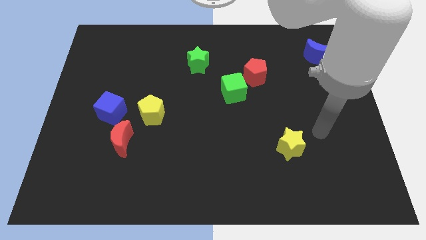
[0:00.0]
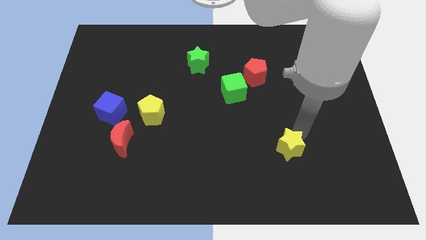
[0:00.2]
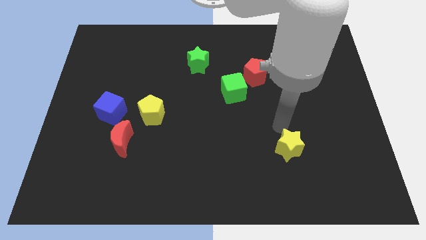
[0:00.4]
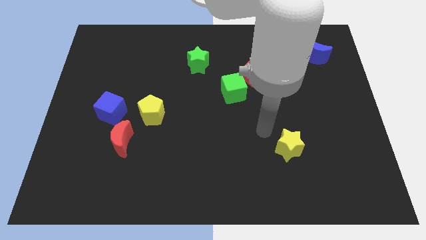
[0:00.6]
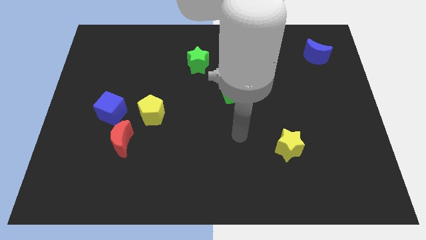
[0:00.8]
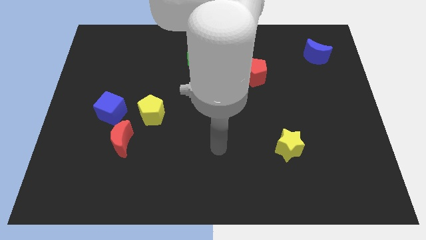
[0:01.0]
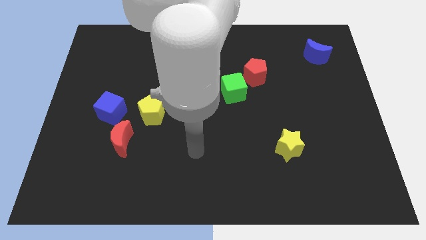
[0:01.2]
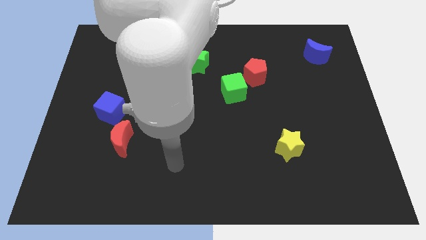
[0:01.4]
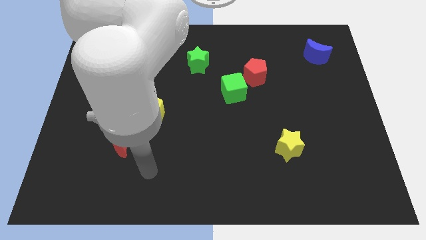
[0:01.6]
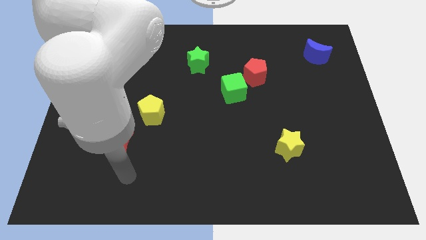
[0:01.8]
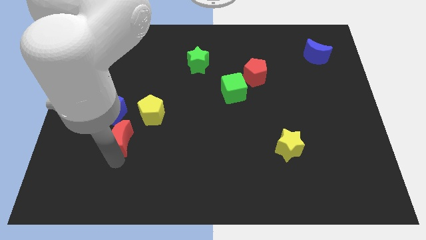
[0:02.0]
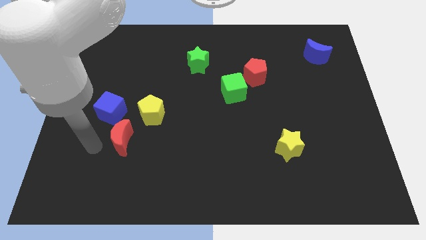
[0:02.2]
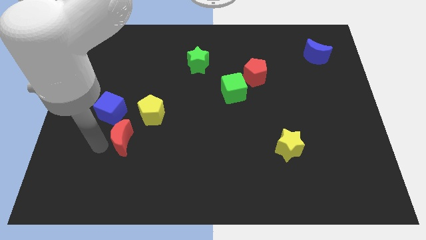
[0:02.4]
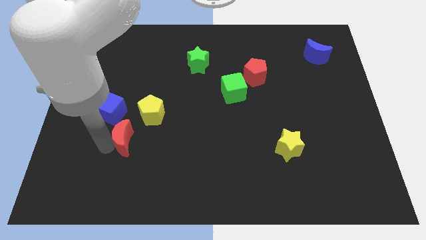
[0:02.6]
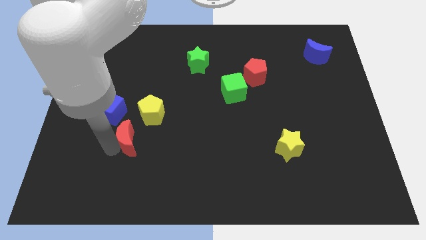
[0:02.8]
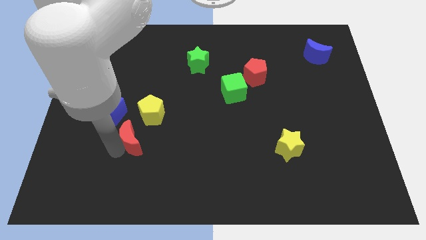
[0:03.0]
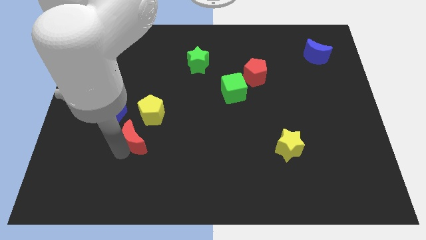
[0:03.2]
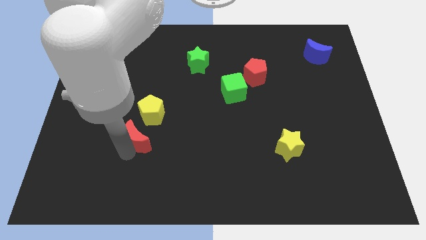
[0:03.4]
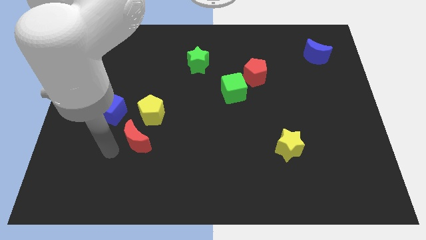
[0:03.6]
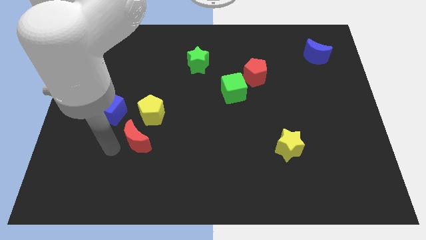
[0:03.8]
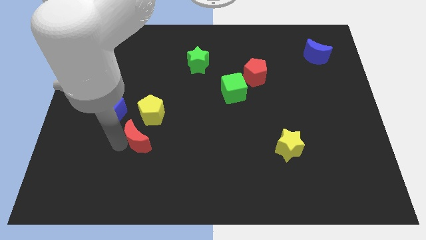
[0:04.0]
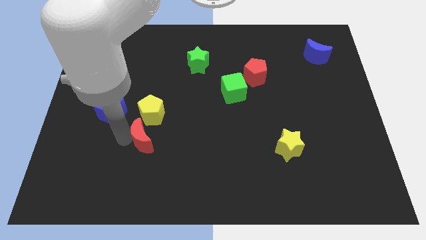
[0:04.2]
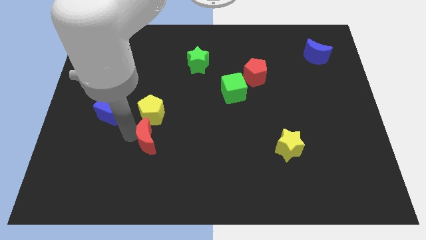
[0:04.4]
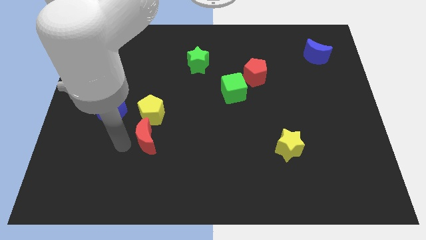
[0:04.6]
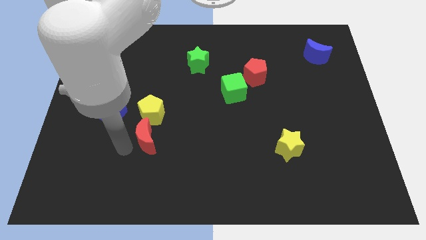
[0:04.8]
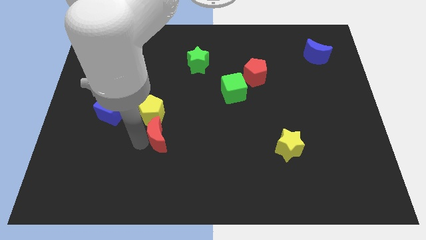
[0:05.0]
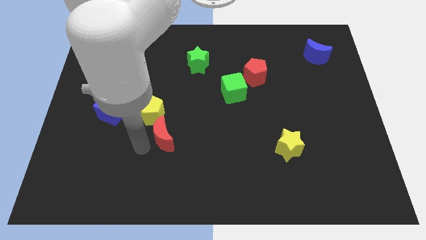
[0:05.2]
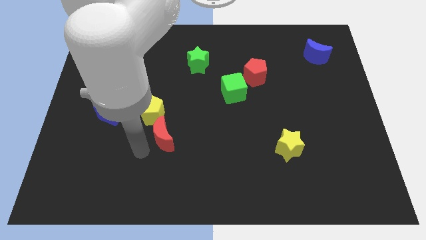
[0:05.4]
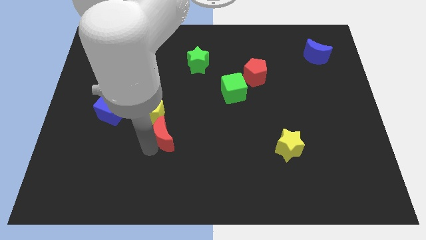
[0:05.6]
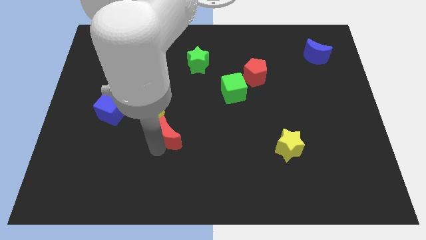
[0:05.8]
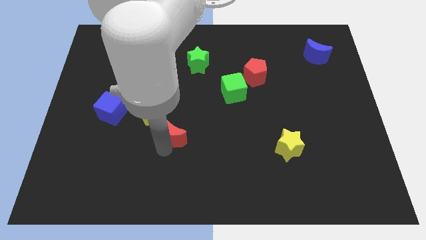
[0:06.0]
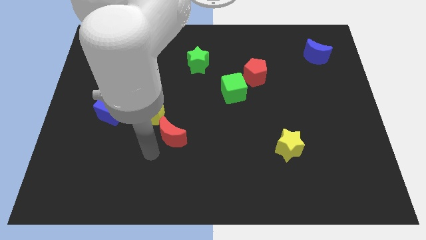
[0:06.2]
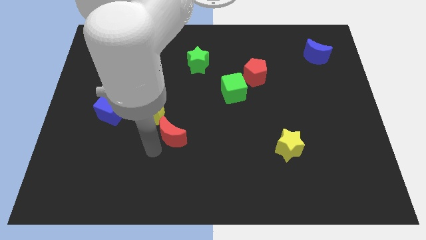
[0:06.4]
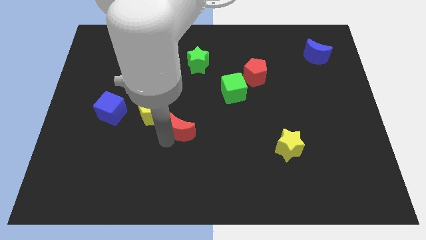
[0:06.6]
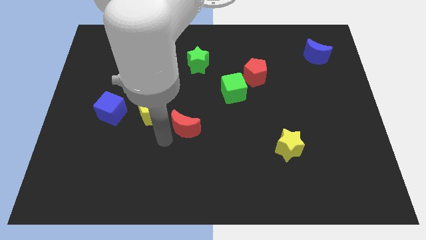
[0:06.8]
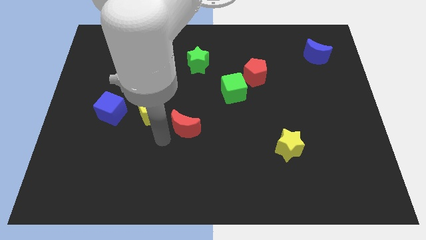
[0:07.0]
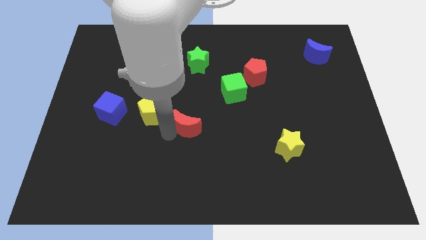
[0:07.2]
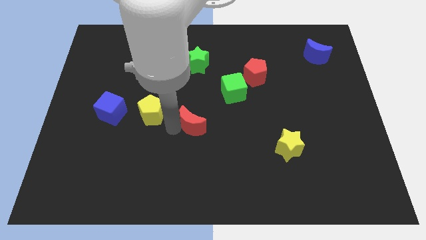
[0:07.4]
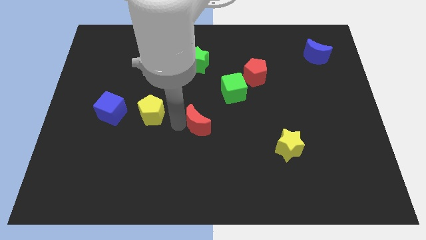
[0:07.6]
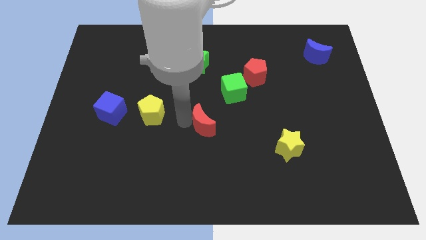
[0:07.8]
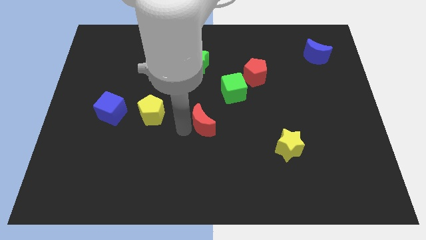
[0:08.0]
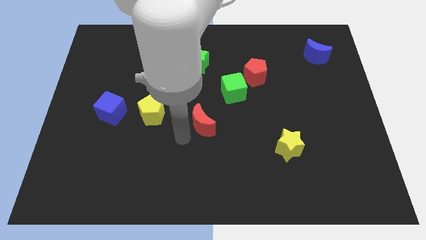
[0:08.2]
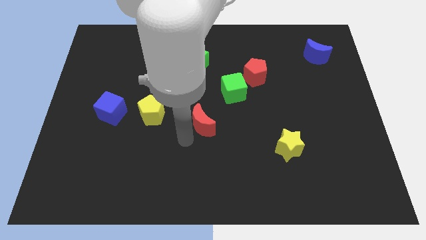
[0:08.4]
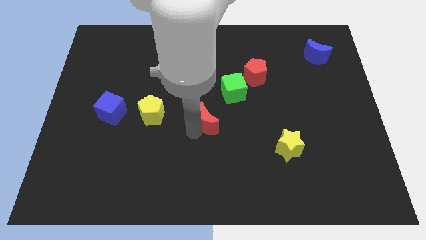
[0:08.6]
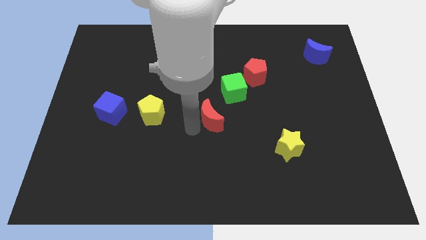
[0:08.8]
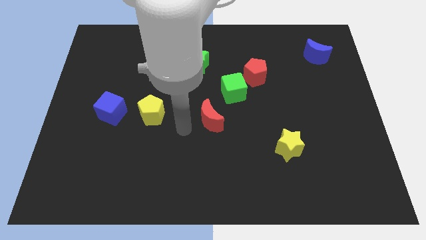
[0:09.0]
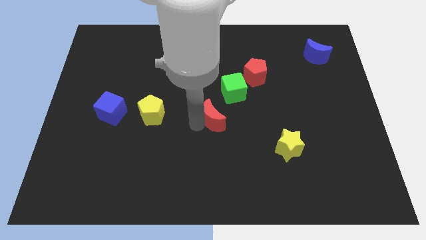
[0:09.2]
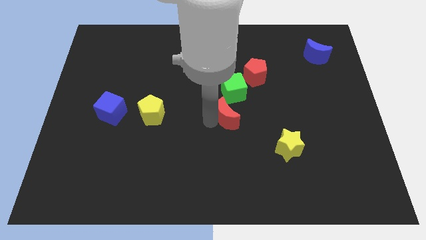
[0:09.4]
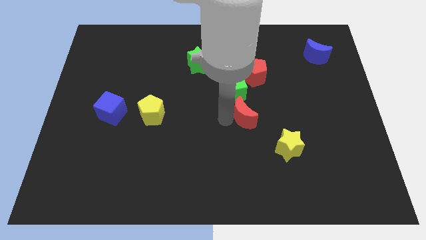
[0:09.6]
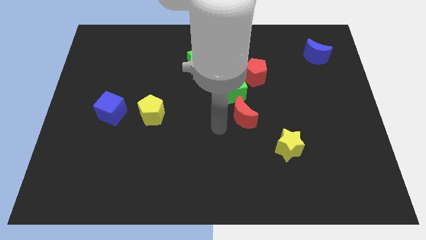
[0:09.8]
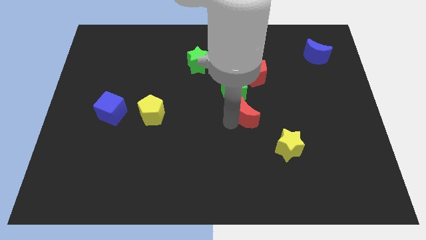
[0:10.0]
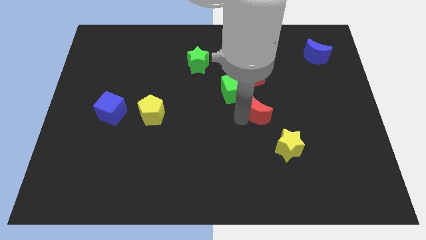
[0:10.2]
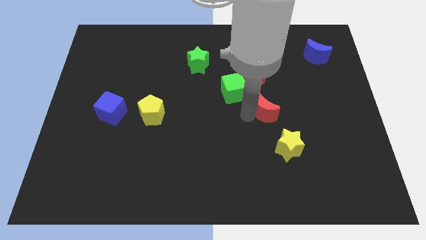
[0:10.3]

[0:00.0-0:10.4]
put the red moon to the top side of the yellow star

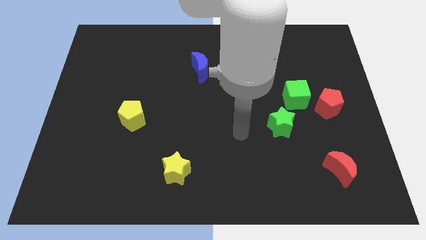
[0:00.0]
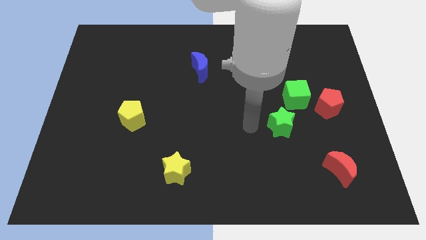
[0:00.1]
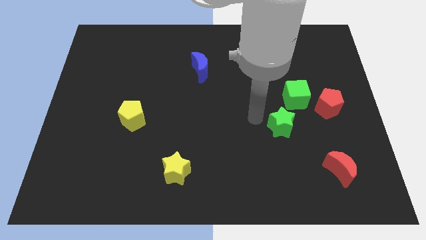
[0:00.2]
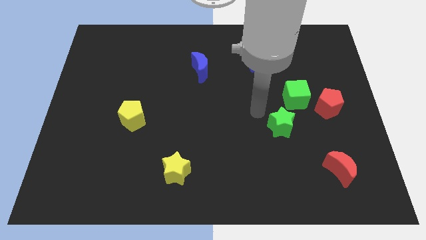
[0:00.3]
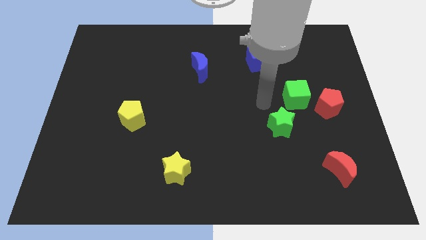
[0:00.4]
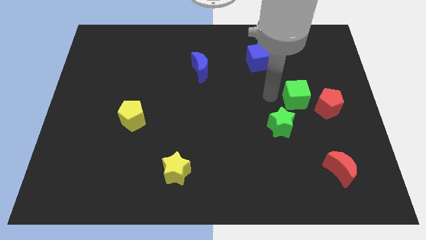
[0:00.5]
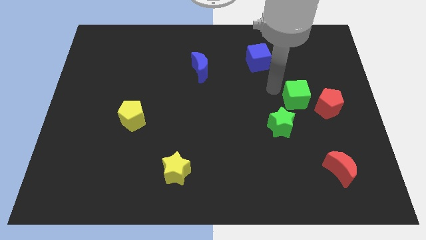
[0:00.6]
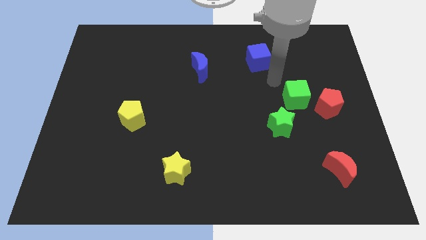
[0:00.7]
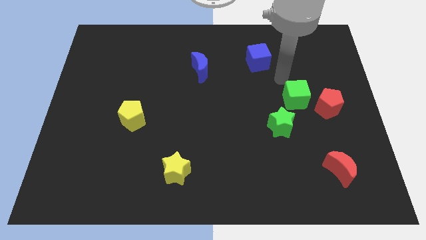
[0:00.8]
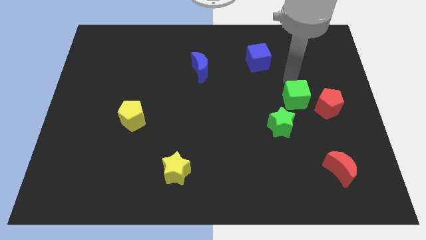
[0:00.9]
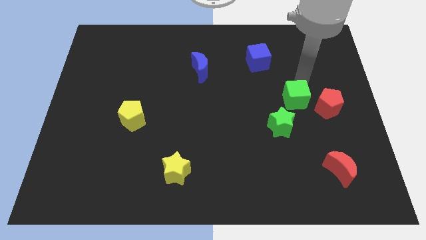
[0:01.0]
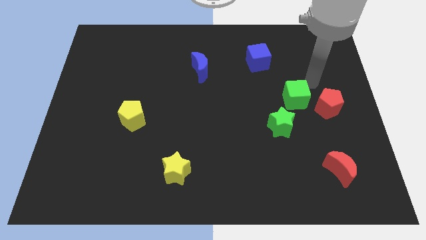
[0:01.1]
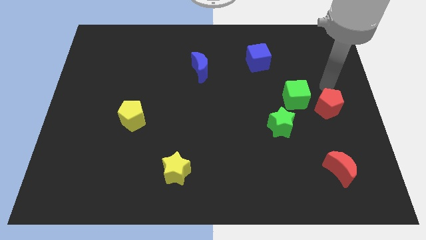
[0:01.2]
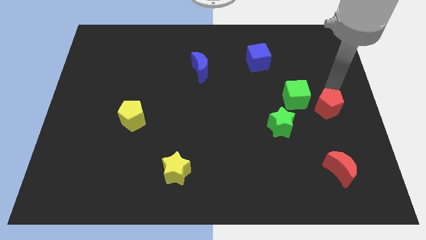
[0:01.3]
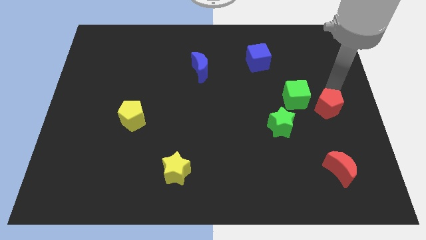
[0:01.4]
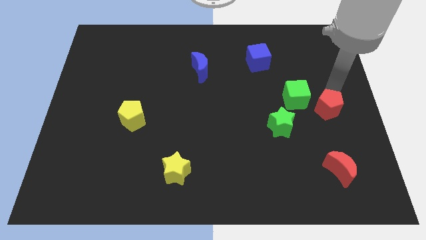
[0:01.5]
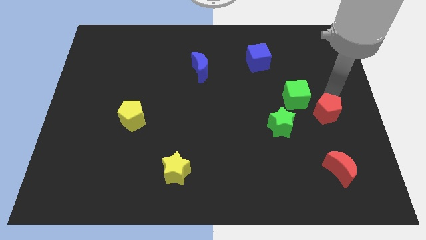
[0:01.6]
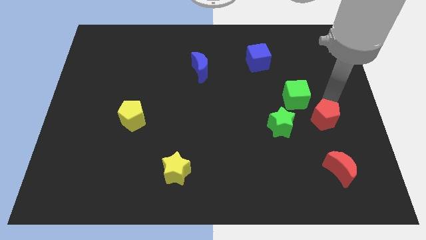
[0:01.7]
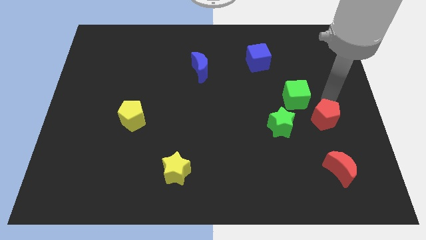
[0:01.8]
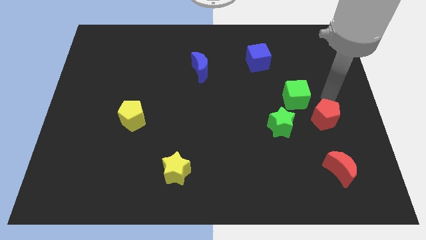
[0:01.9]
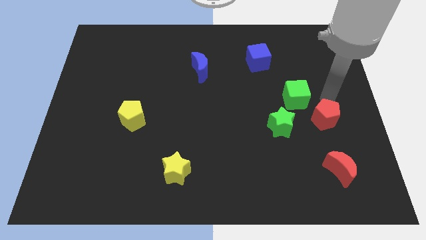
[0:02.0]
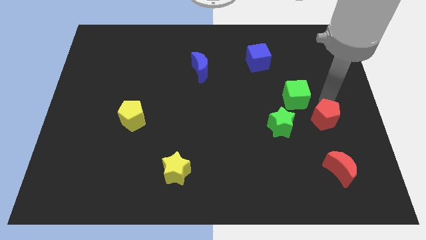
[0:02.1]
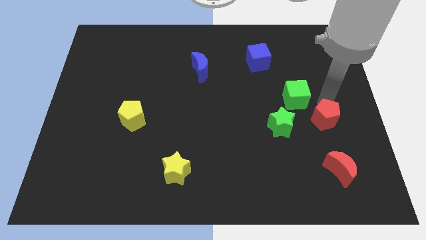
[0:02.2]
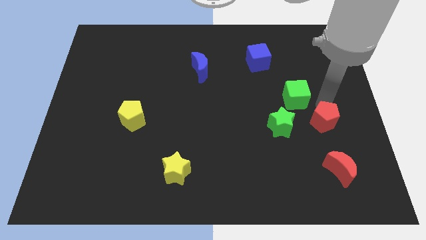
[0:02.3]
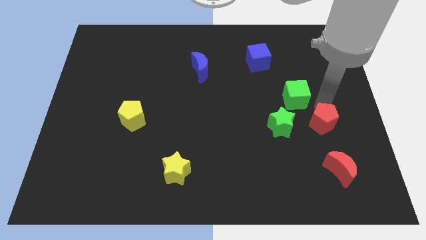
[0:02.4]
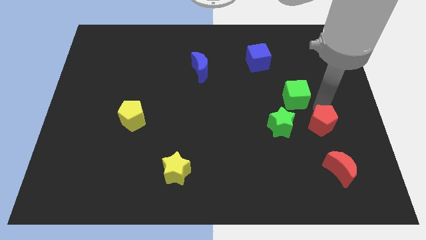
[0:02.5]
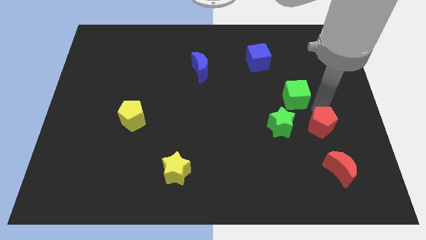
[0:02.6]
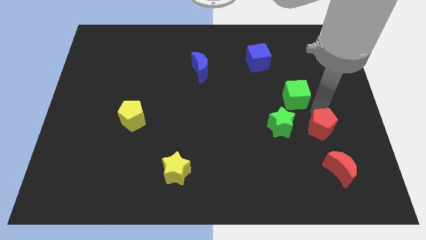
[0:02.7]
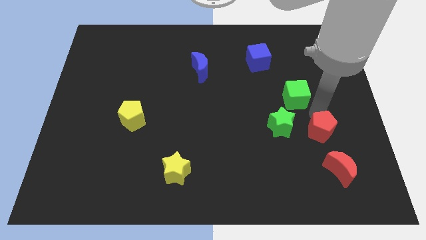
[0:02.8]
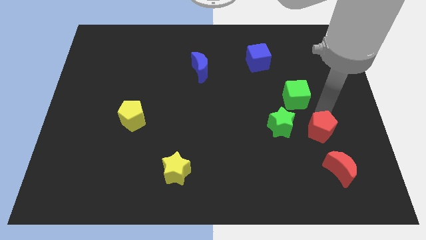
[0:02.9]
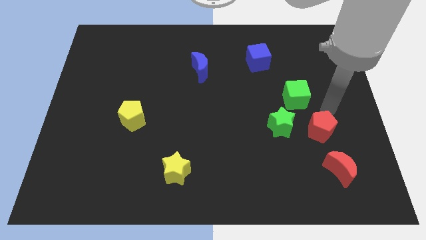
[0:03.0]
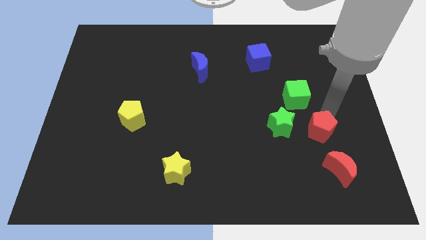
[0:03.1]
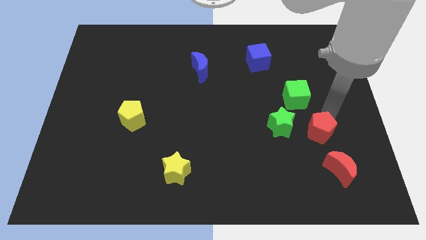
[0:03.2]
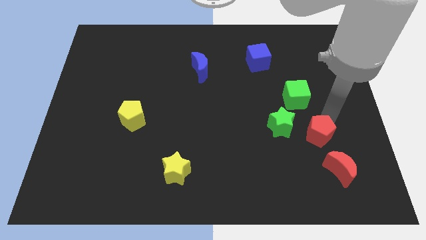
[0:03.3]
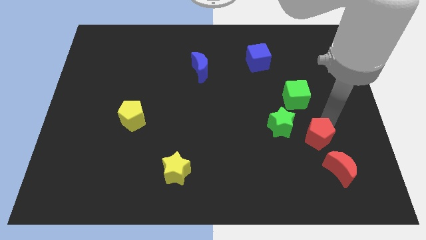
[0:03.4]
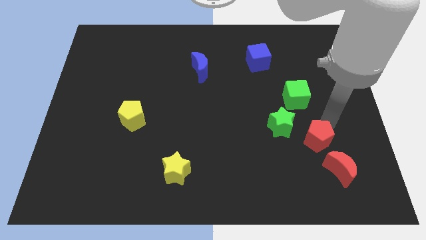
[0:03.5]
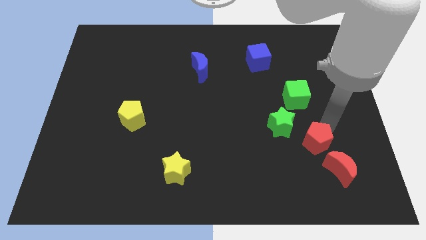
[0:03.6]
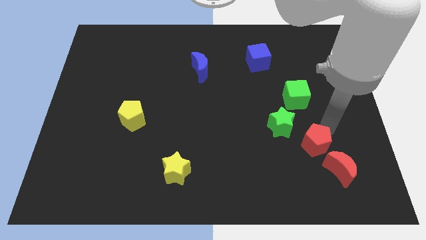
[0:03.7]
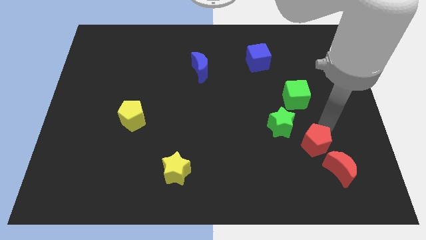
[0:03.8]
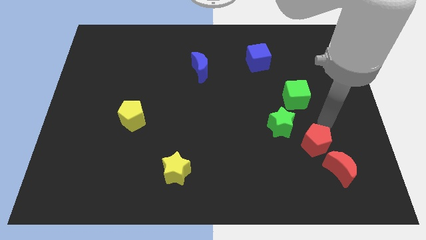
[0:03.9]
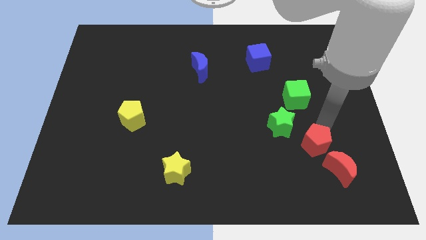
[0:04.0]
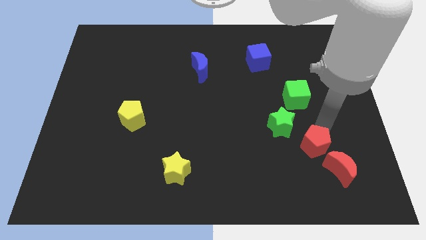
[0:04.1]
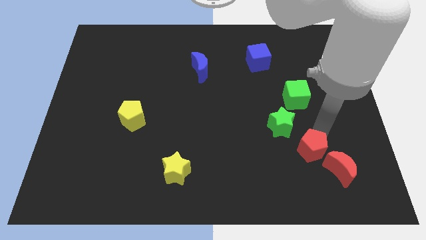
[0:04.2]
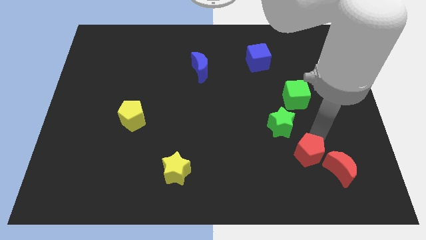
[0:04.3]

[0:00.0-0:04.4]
move the red pentagon to the left side of the red moon
